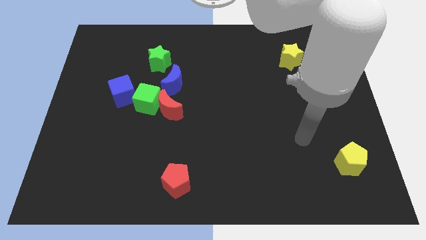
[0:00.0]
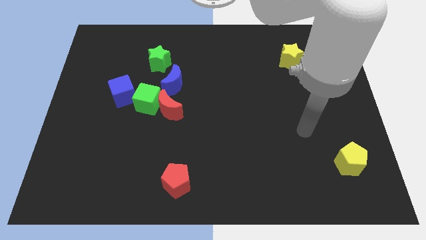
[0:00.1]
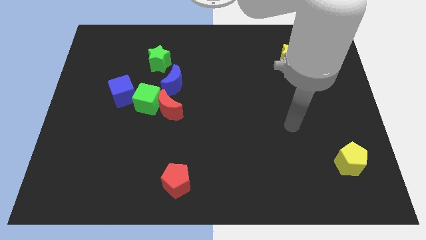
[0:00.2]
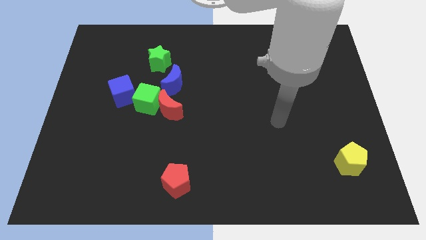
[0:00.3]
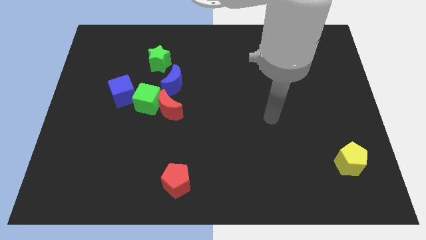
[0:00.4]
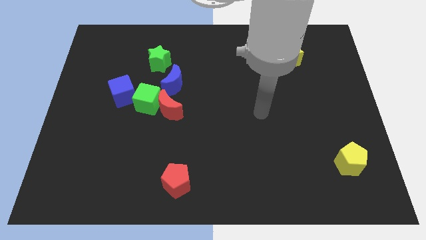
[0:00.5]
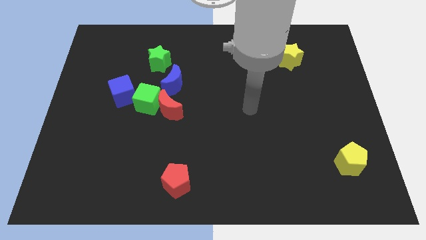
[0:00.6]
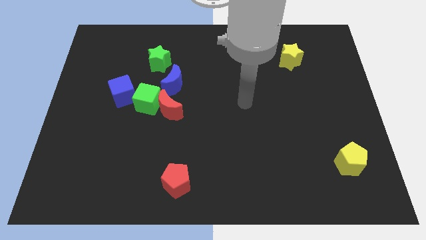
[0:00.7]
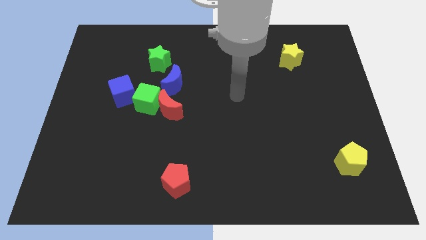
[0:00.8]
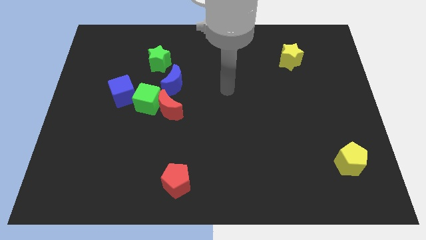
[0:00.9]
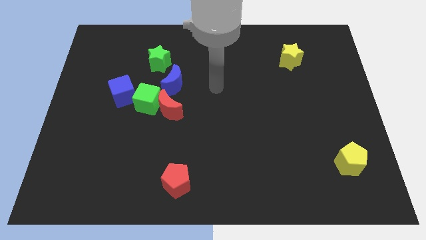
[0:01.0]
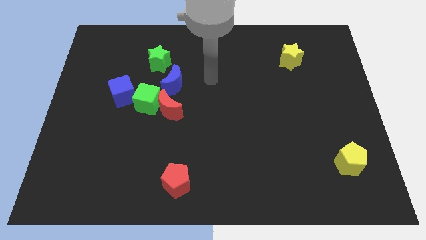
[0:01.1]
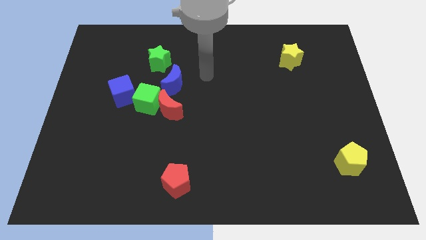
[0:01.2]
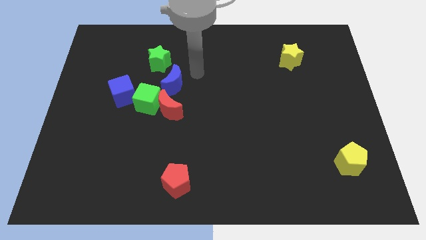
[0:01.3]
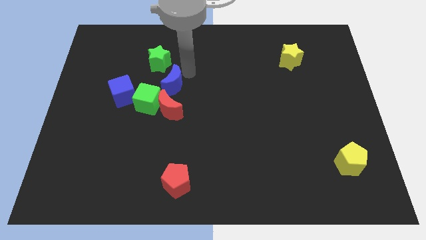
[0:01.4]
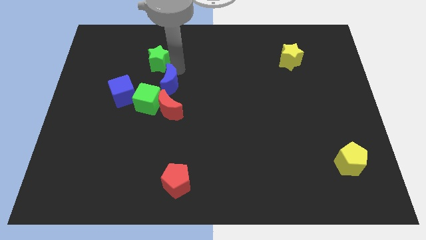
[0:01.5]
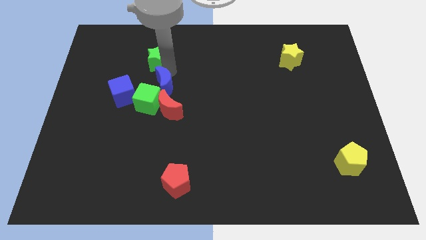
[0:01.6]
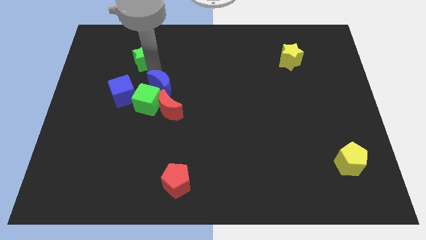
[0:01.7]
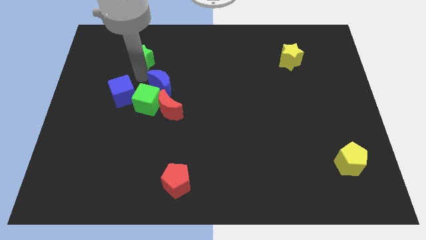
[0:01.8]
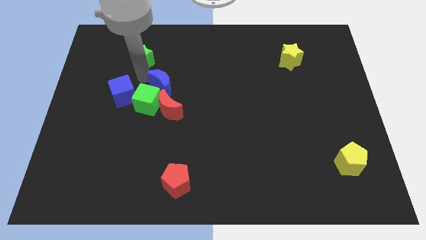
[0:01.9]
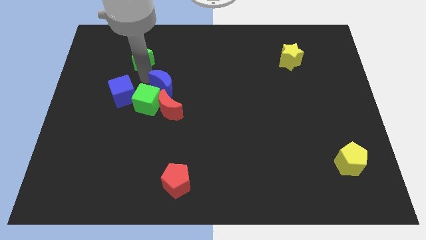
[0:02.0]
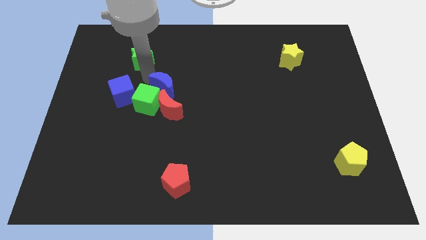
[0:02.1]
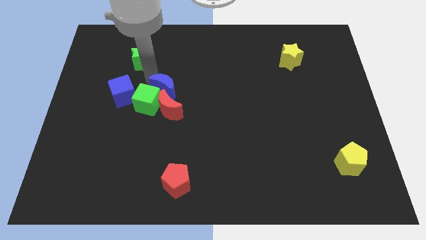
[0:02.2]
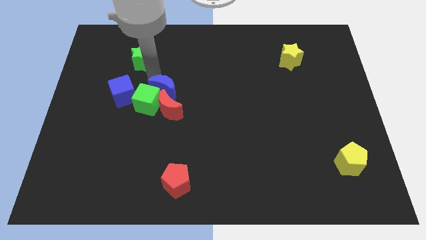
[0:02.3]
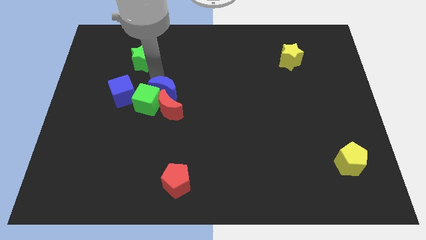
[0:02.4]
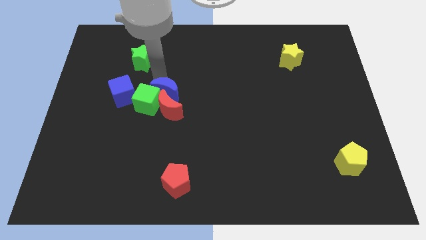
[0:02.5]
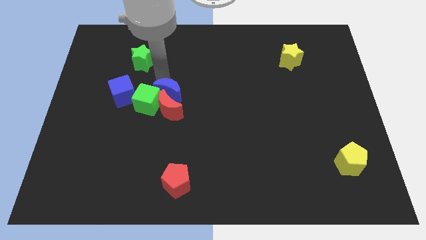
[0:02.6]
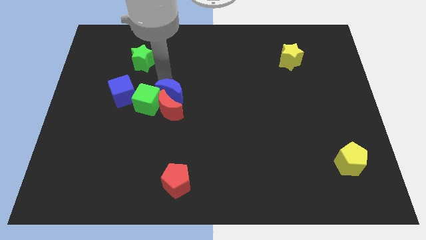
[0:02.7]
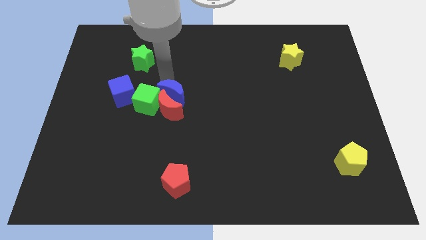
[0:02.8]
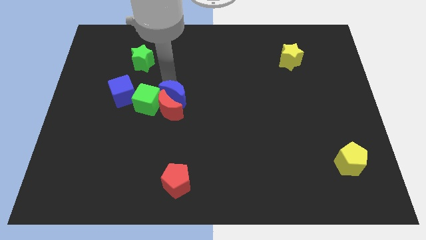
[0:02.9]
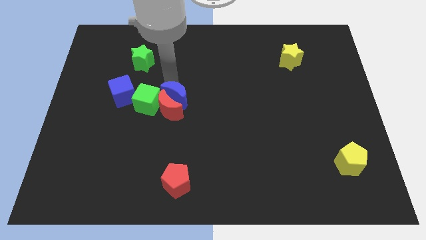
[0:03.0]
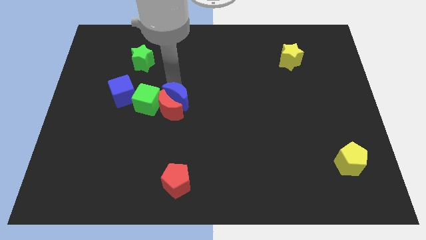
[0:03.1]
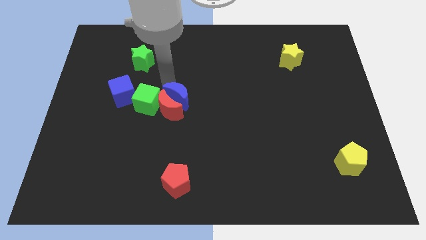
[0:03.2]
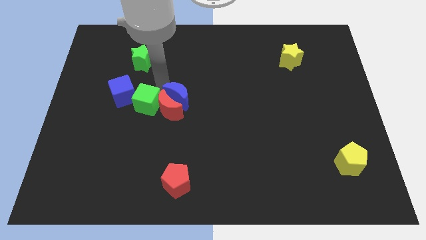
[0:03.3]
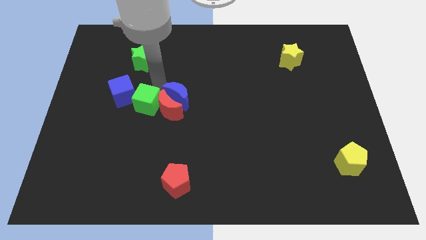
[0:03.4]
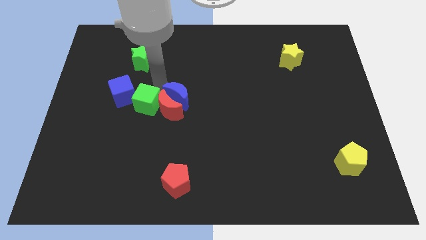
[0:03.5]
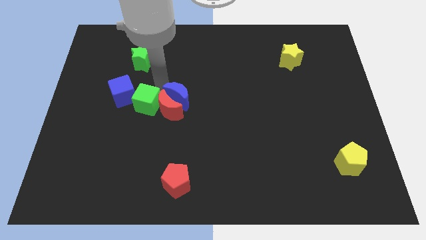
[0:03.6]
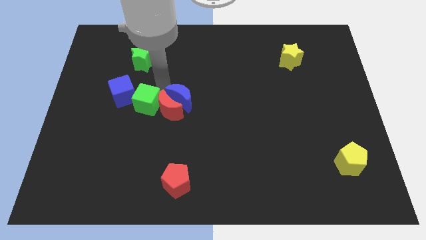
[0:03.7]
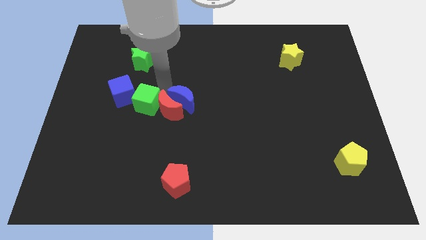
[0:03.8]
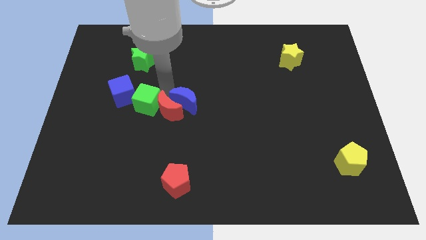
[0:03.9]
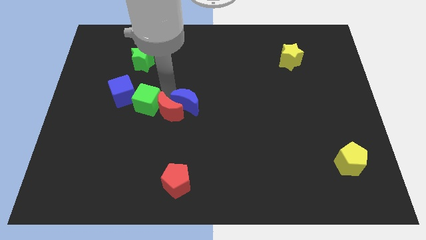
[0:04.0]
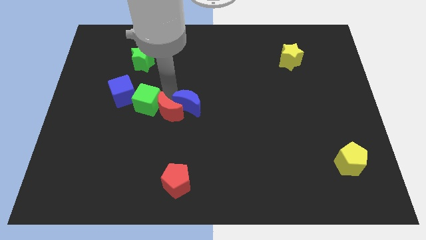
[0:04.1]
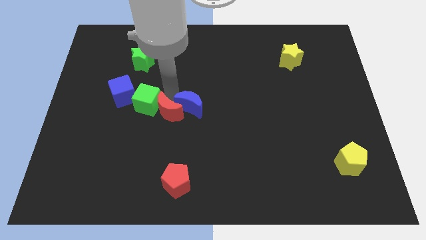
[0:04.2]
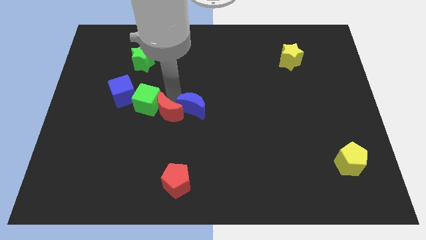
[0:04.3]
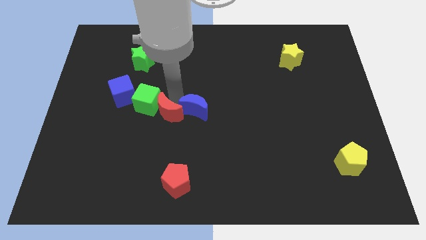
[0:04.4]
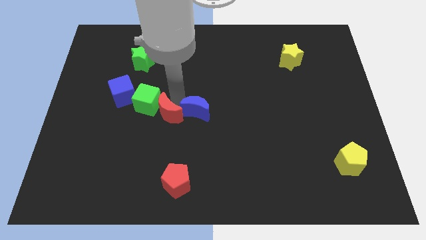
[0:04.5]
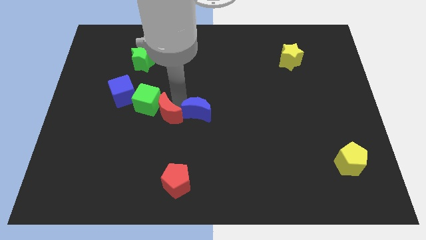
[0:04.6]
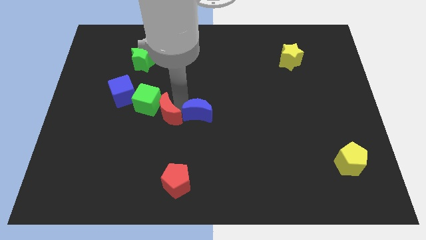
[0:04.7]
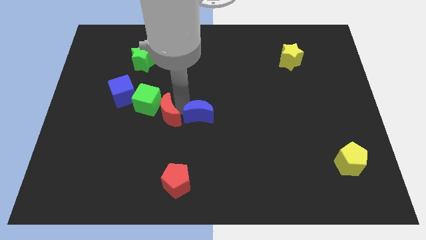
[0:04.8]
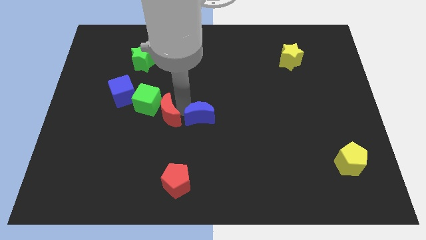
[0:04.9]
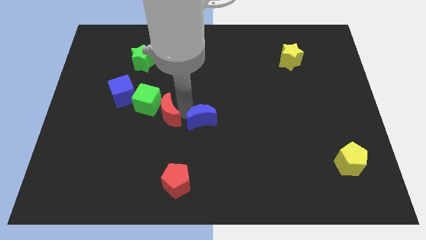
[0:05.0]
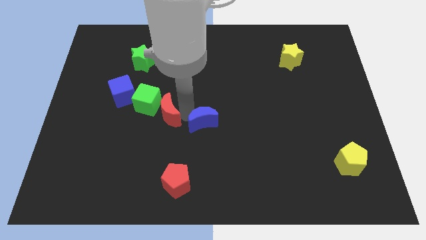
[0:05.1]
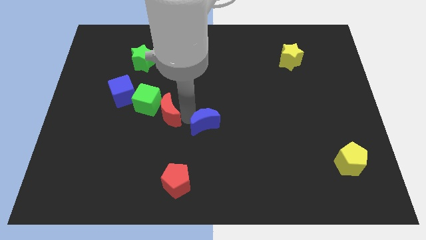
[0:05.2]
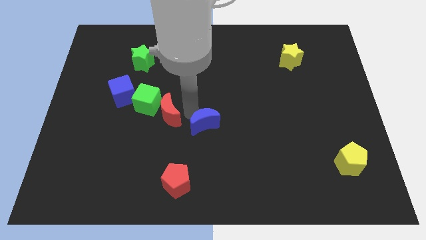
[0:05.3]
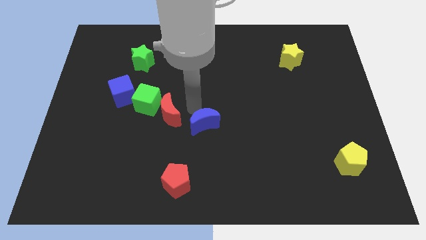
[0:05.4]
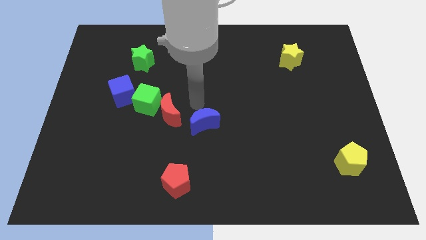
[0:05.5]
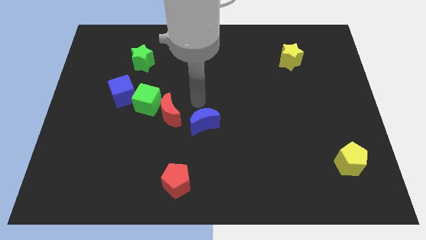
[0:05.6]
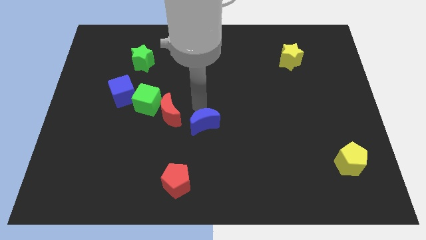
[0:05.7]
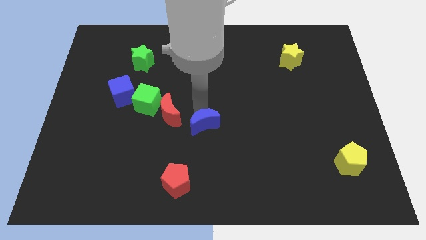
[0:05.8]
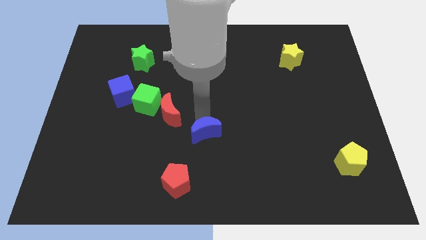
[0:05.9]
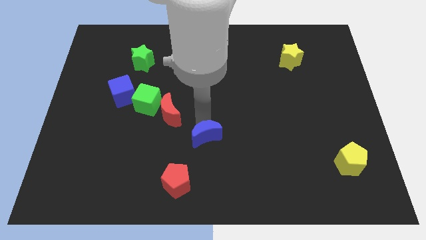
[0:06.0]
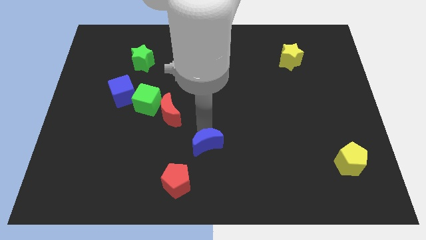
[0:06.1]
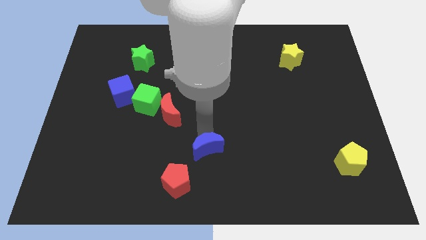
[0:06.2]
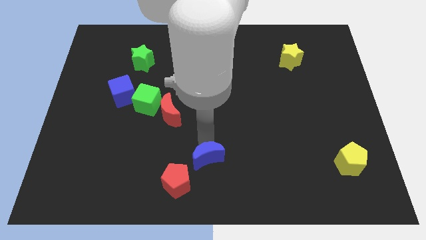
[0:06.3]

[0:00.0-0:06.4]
put the blue moon to the bottom
